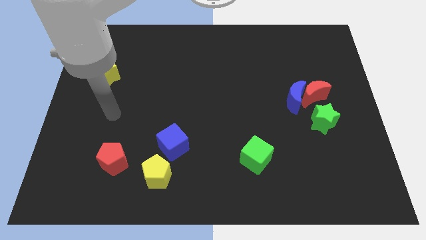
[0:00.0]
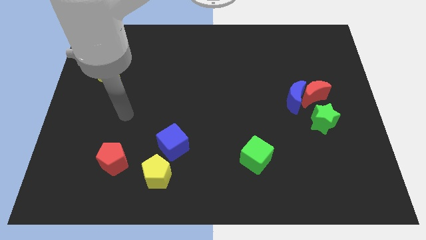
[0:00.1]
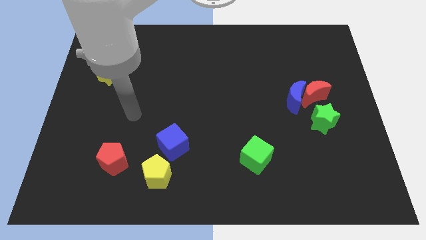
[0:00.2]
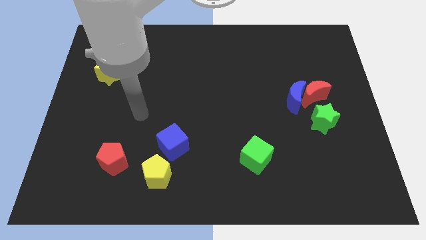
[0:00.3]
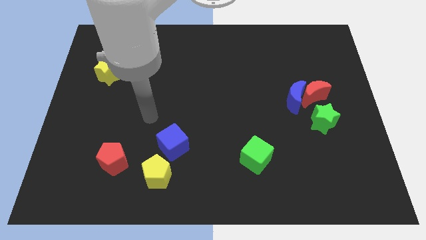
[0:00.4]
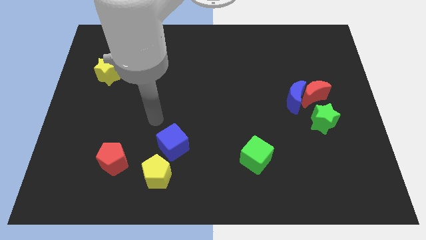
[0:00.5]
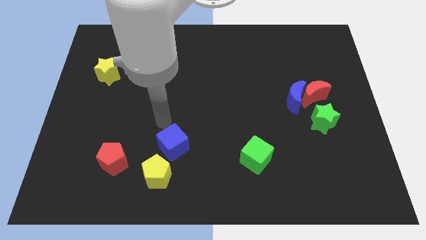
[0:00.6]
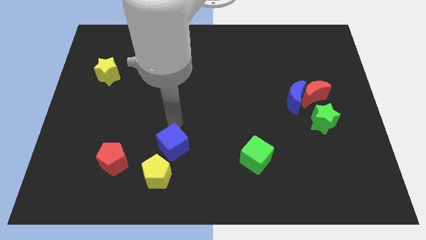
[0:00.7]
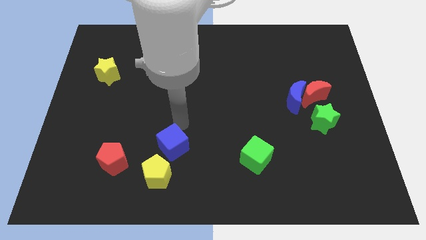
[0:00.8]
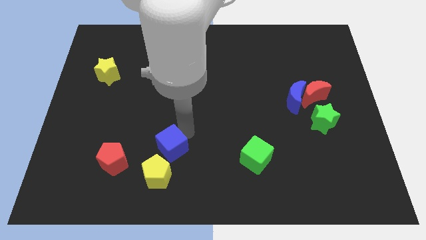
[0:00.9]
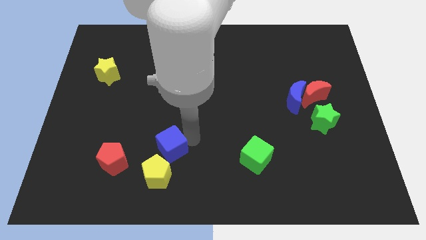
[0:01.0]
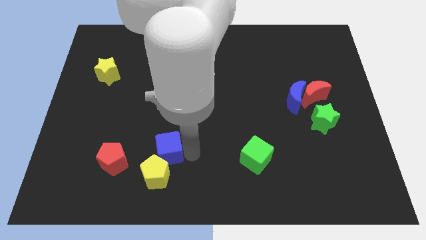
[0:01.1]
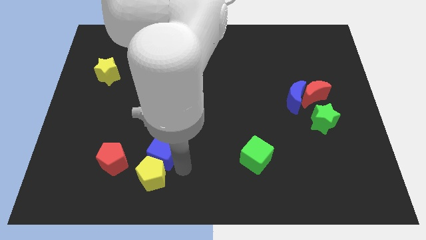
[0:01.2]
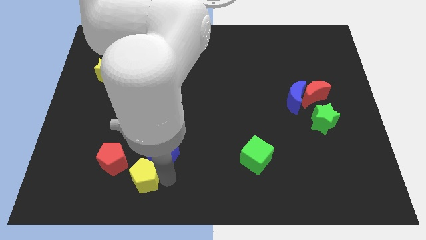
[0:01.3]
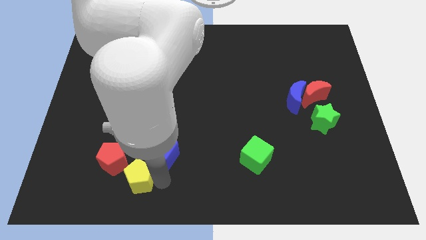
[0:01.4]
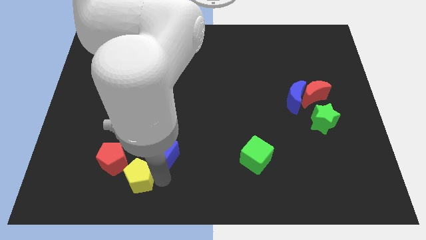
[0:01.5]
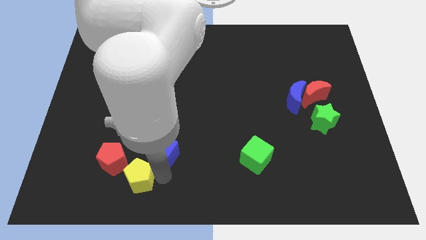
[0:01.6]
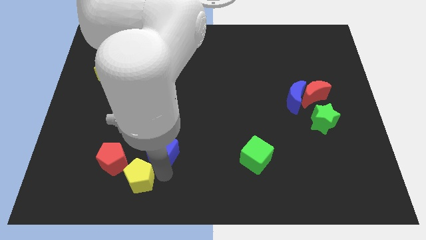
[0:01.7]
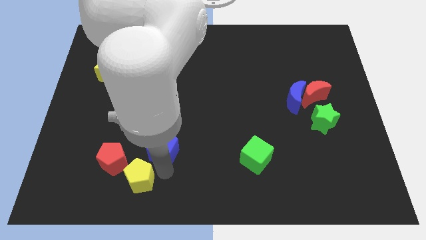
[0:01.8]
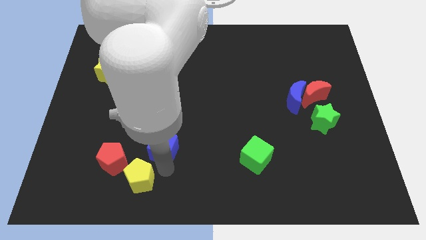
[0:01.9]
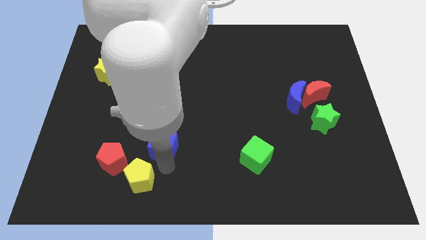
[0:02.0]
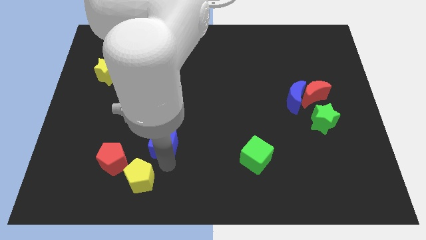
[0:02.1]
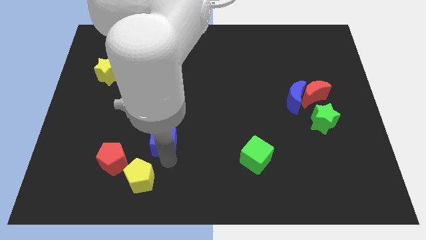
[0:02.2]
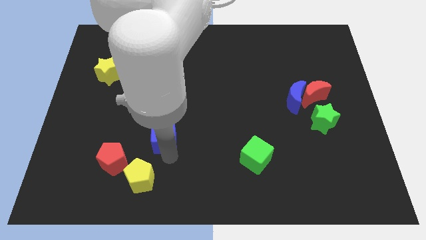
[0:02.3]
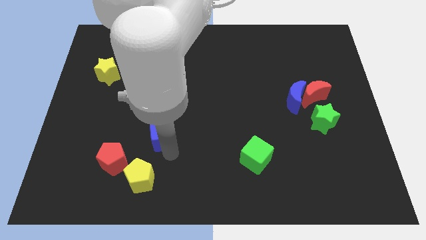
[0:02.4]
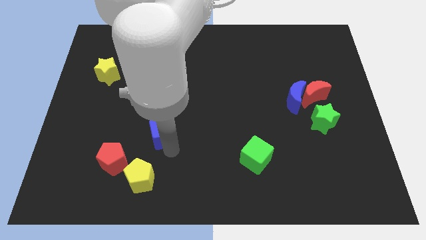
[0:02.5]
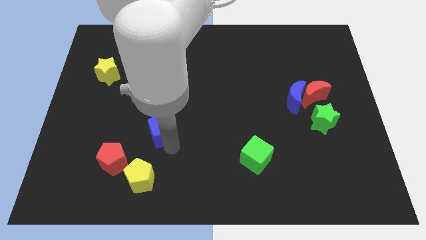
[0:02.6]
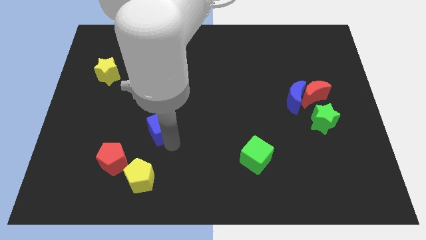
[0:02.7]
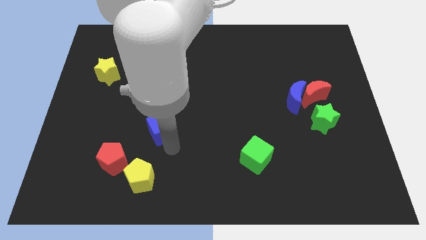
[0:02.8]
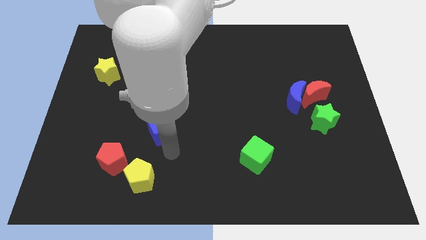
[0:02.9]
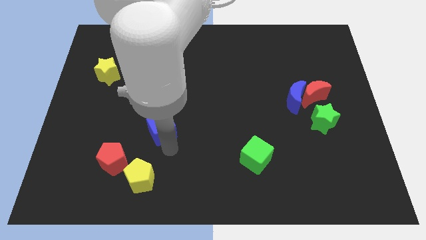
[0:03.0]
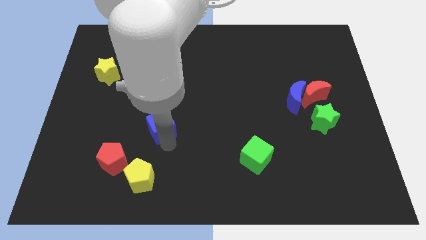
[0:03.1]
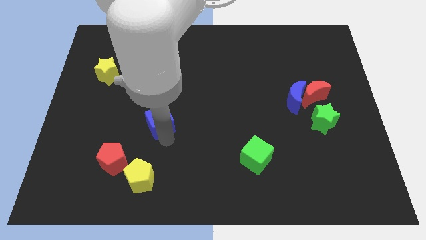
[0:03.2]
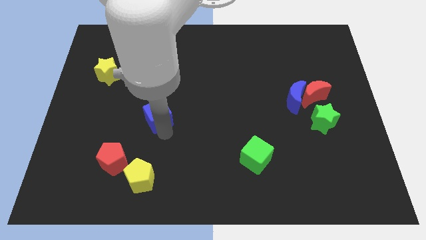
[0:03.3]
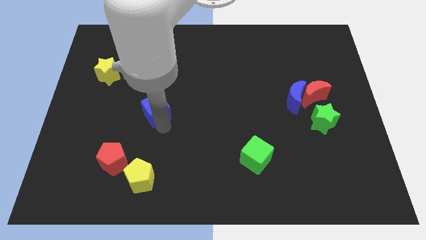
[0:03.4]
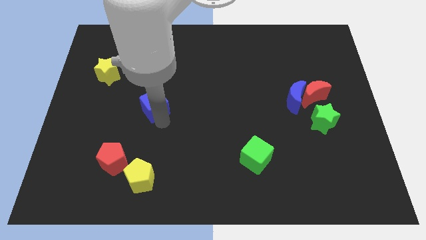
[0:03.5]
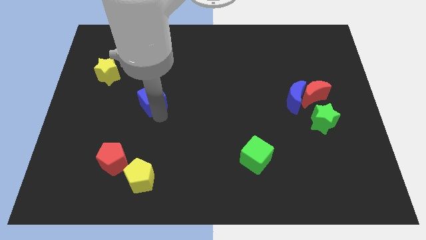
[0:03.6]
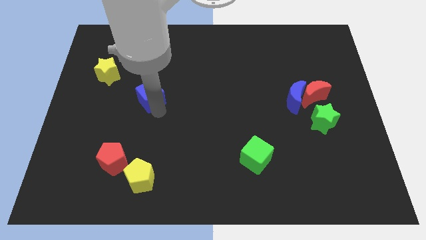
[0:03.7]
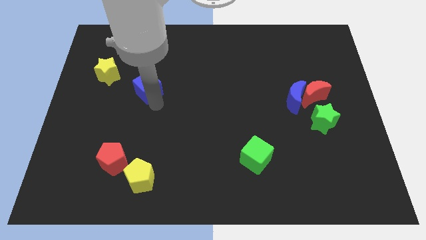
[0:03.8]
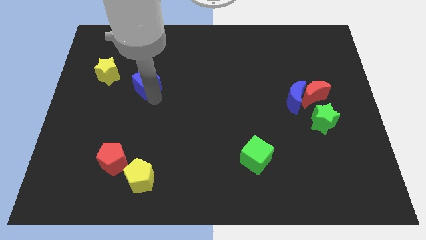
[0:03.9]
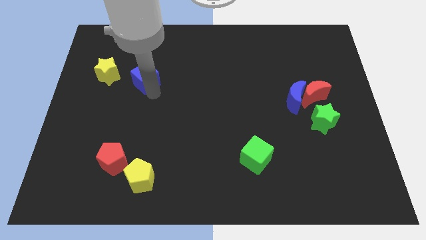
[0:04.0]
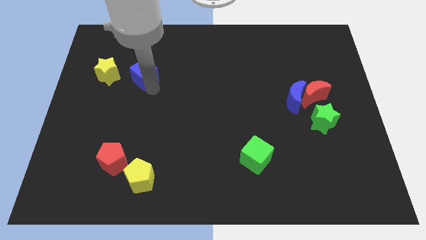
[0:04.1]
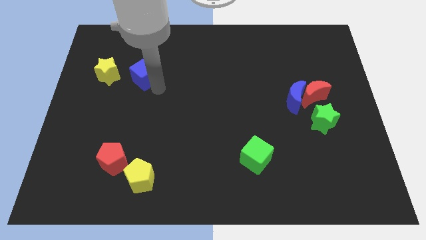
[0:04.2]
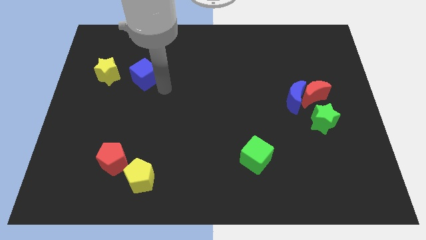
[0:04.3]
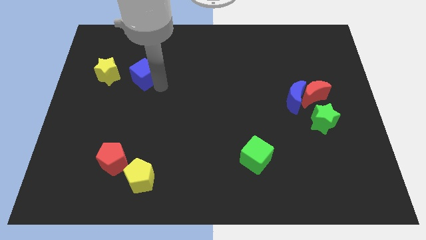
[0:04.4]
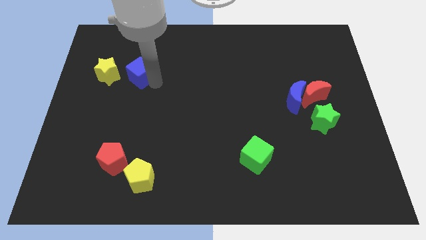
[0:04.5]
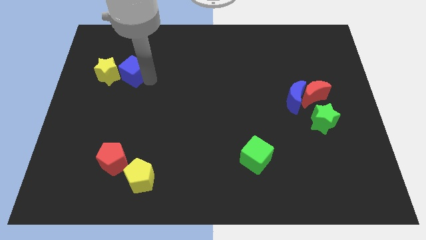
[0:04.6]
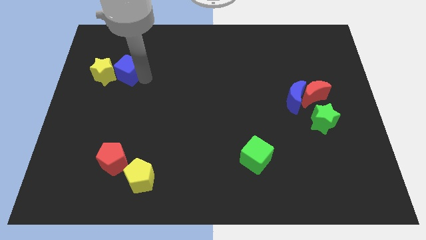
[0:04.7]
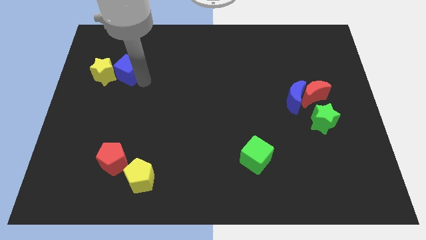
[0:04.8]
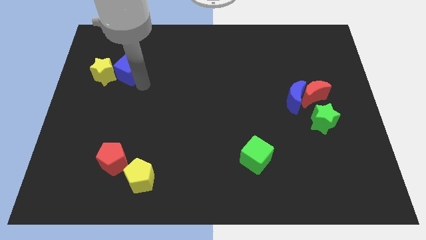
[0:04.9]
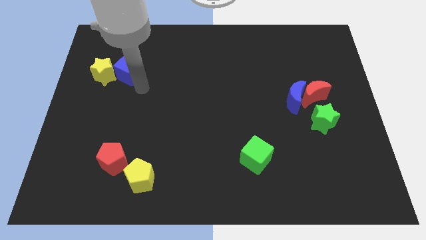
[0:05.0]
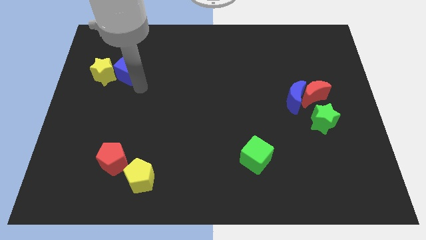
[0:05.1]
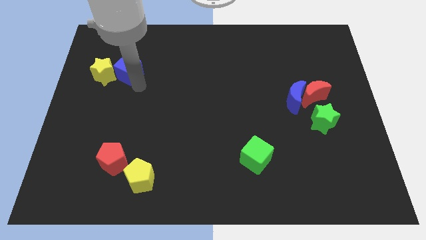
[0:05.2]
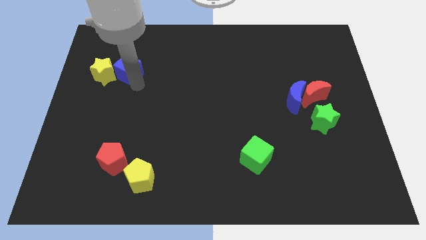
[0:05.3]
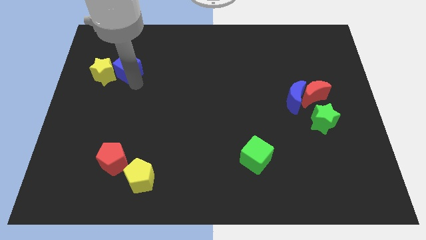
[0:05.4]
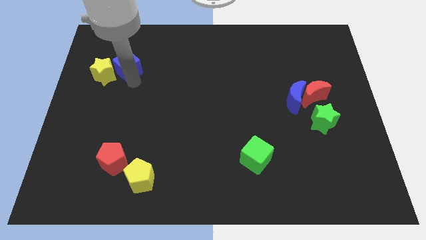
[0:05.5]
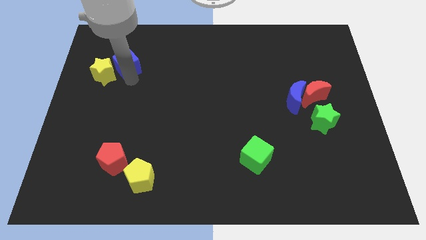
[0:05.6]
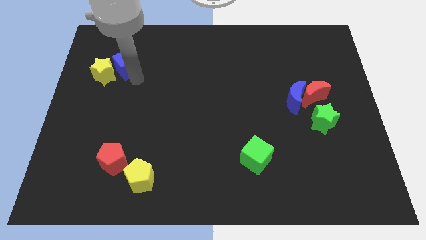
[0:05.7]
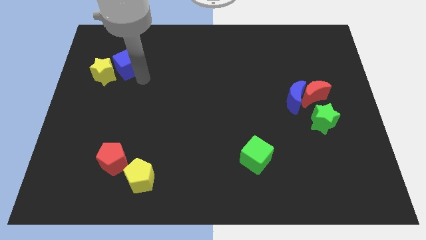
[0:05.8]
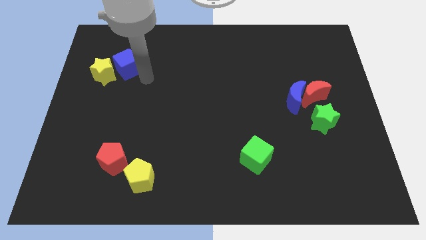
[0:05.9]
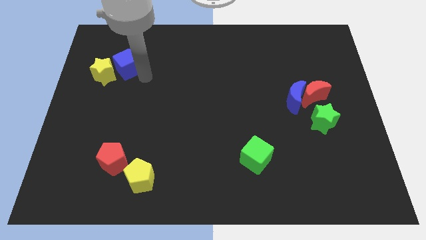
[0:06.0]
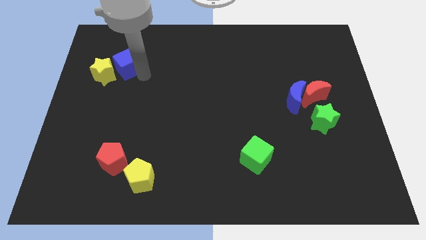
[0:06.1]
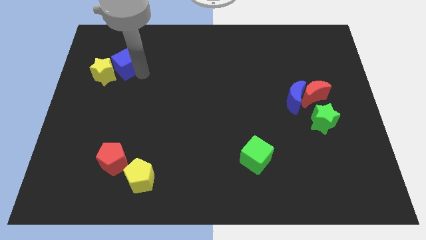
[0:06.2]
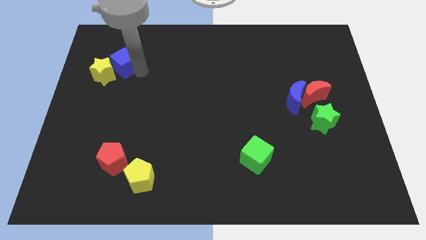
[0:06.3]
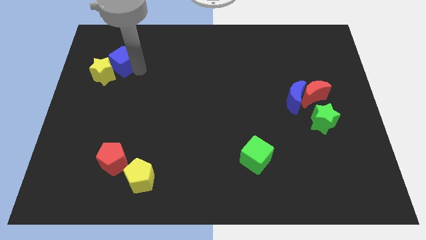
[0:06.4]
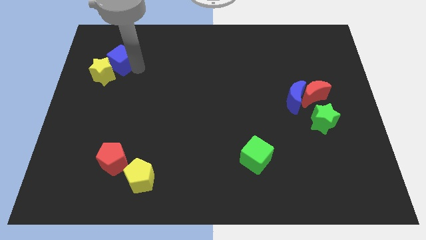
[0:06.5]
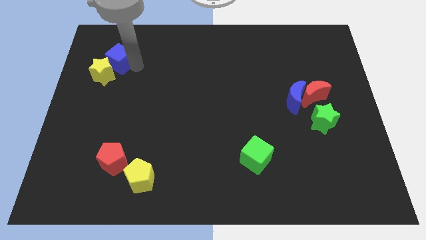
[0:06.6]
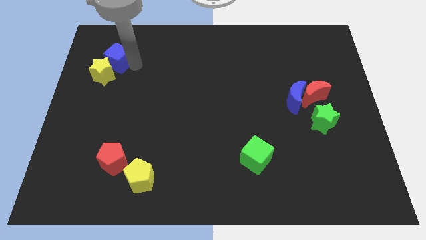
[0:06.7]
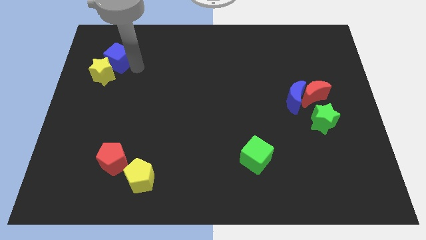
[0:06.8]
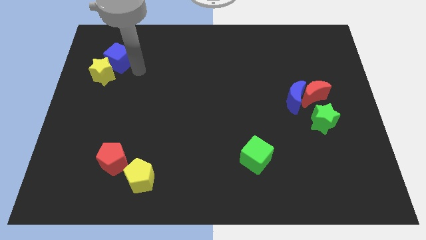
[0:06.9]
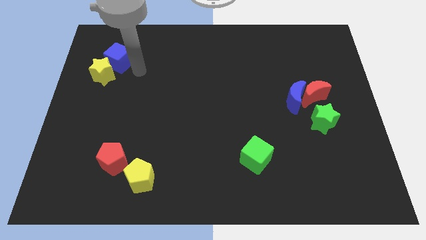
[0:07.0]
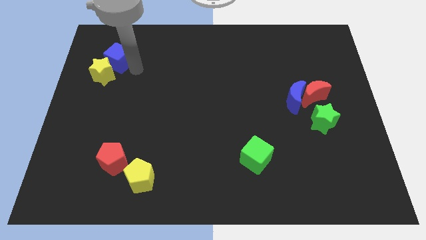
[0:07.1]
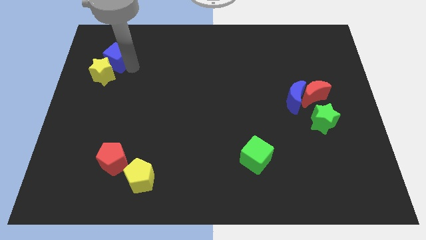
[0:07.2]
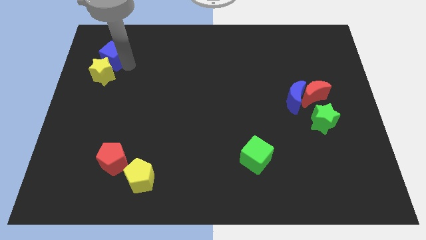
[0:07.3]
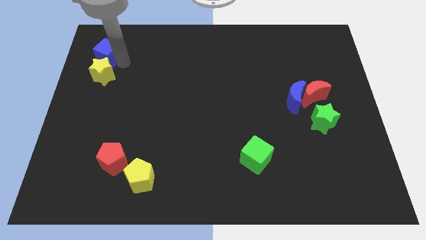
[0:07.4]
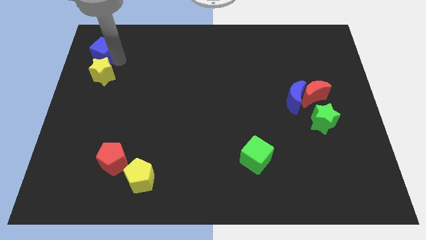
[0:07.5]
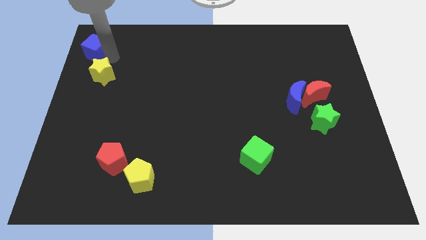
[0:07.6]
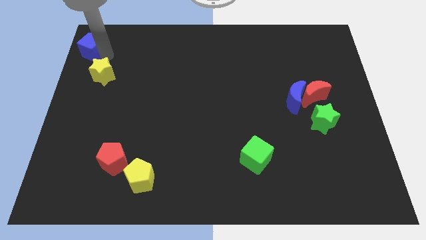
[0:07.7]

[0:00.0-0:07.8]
slide the blue cube to the top left
